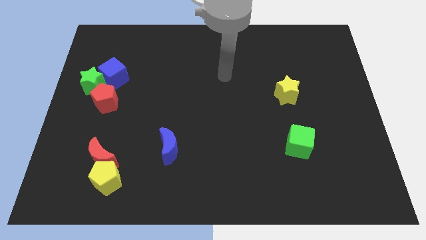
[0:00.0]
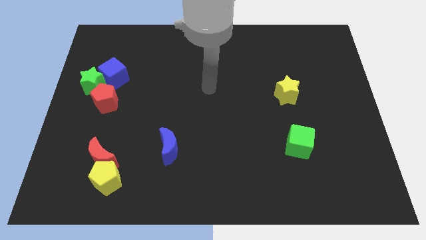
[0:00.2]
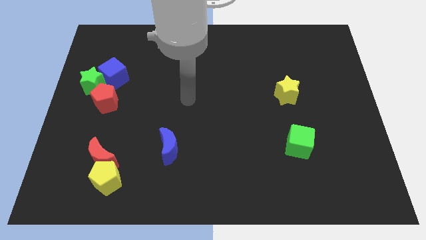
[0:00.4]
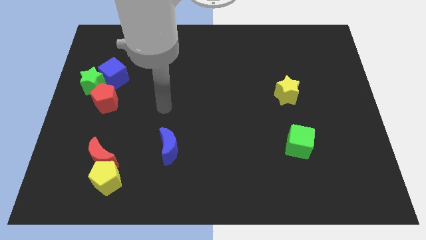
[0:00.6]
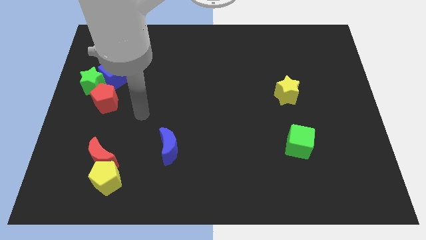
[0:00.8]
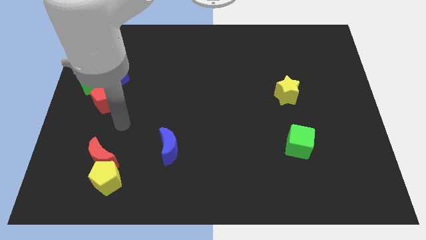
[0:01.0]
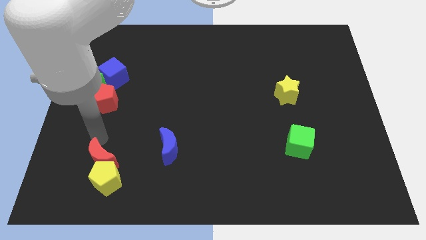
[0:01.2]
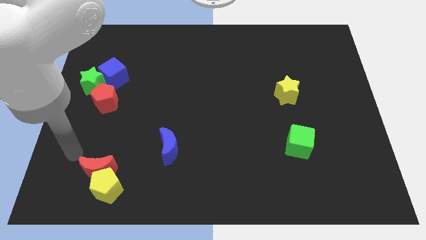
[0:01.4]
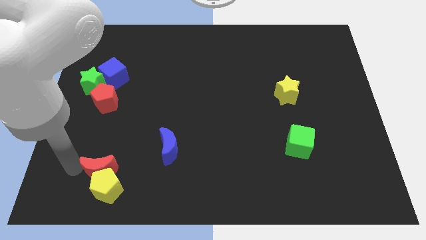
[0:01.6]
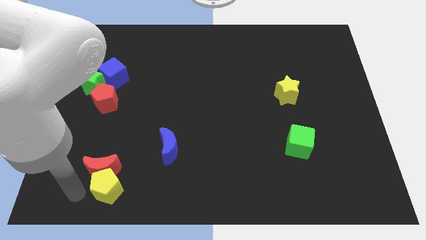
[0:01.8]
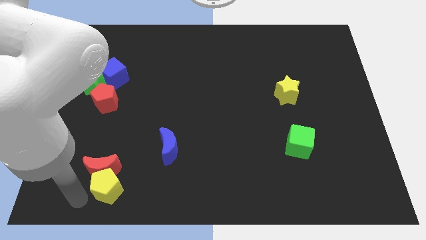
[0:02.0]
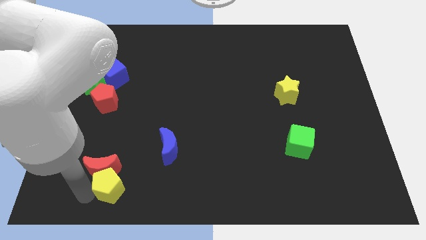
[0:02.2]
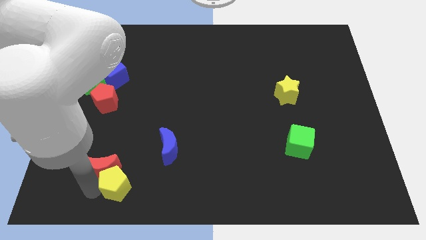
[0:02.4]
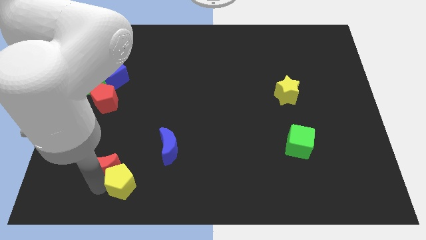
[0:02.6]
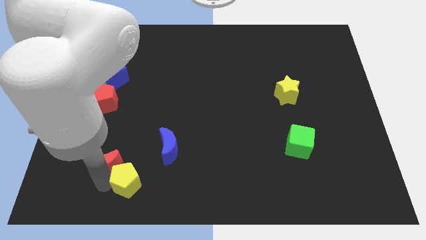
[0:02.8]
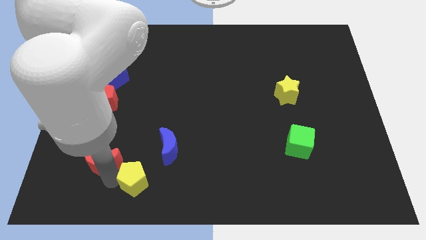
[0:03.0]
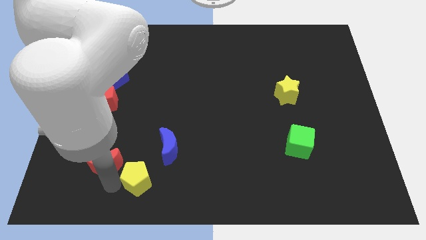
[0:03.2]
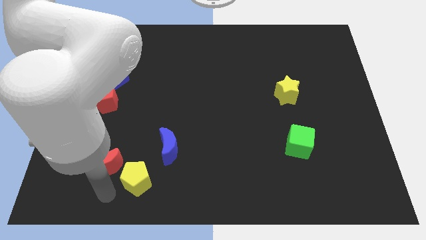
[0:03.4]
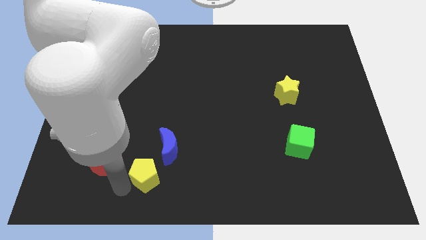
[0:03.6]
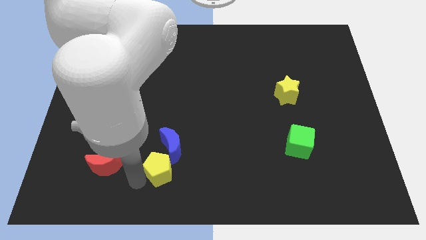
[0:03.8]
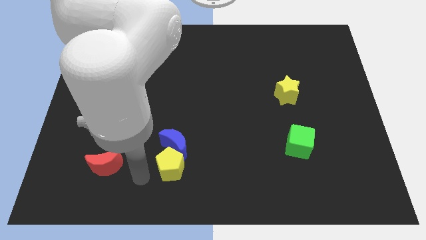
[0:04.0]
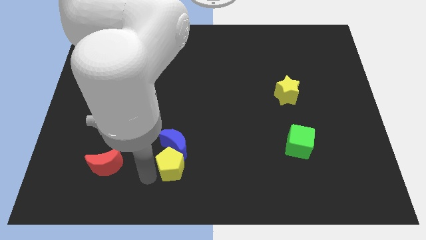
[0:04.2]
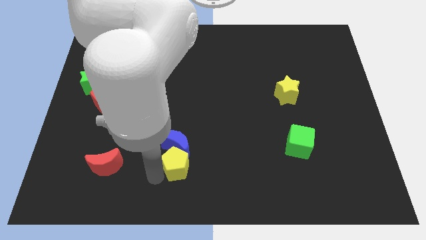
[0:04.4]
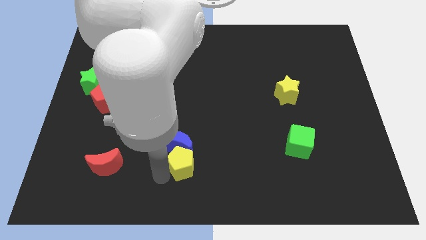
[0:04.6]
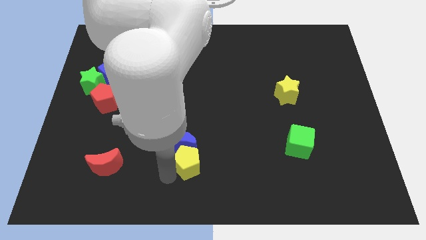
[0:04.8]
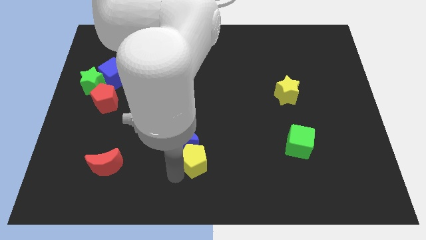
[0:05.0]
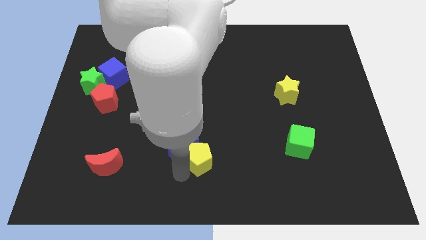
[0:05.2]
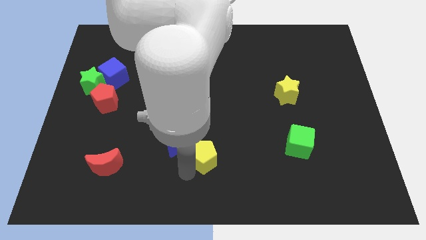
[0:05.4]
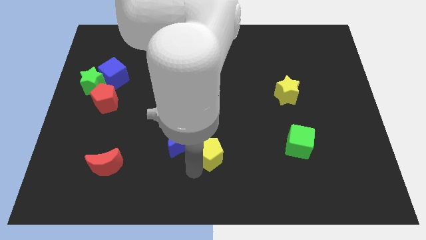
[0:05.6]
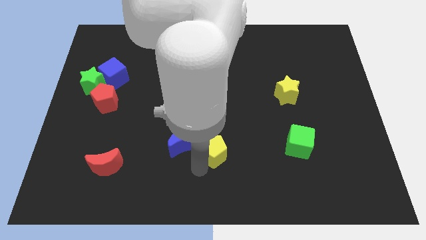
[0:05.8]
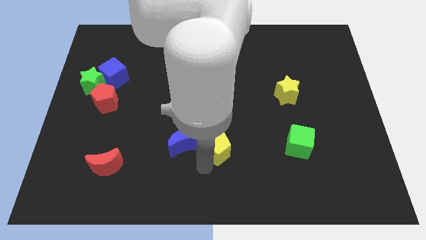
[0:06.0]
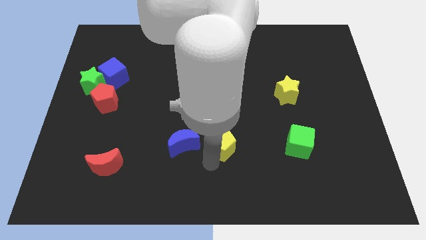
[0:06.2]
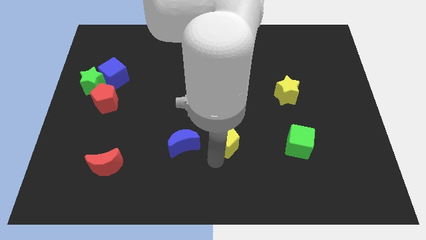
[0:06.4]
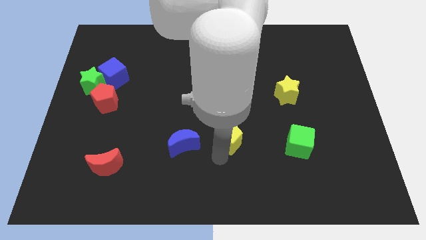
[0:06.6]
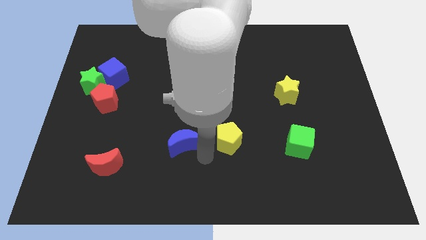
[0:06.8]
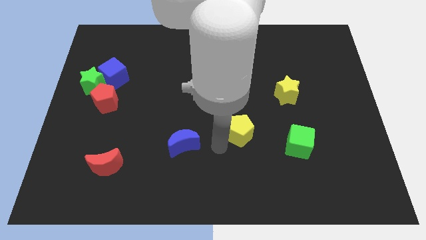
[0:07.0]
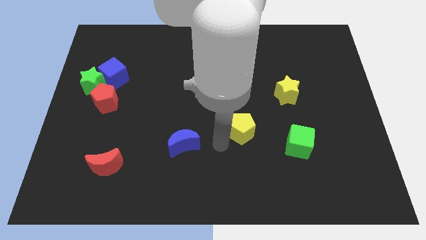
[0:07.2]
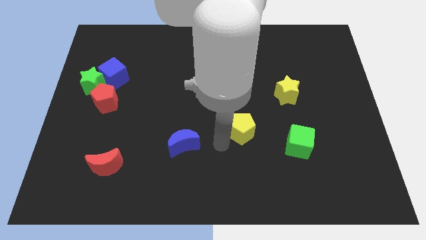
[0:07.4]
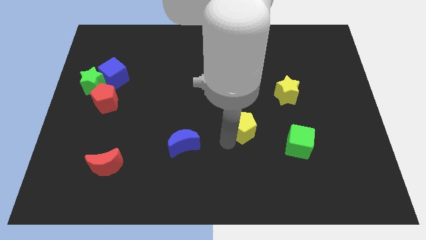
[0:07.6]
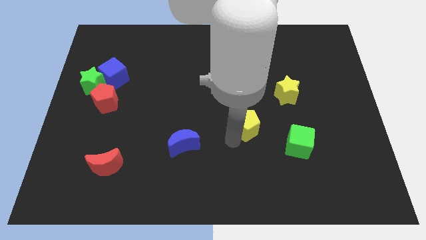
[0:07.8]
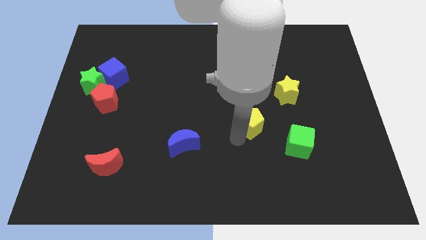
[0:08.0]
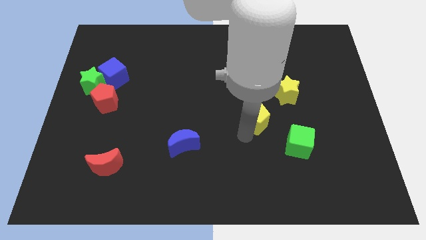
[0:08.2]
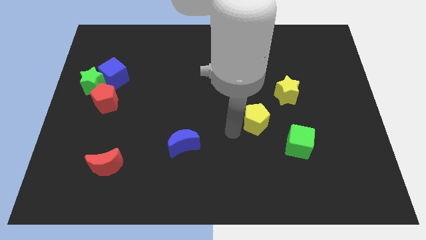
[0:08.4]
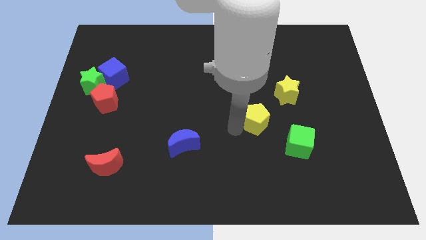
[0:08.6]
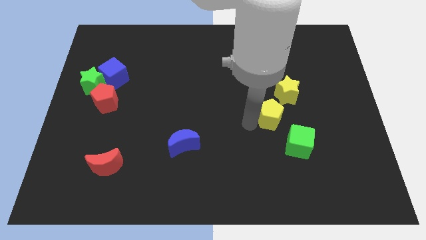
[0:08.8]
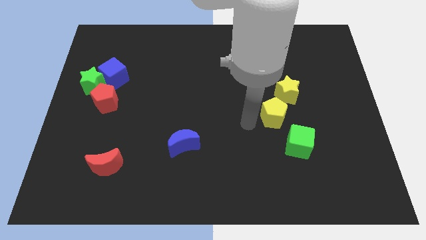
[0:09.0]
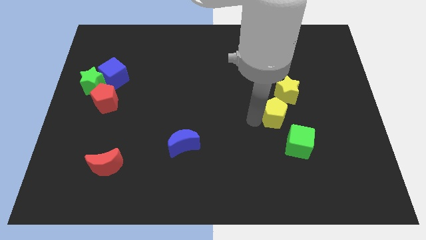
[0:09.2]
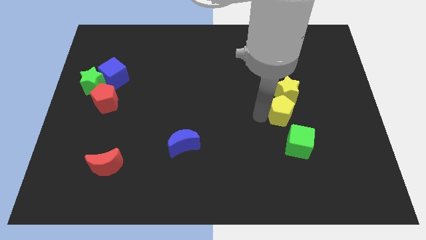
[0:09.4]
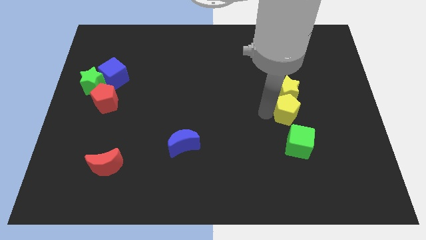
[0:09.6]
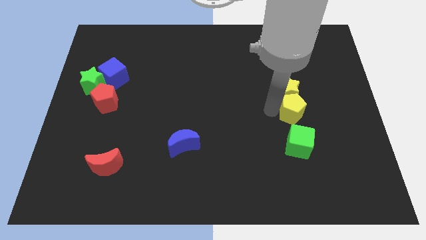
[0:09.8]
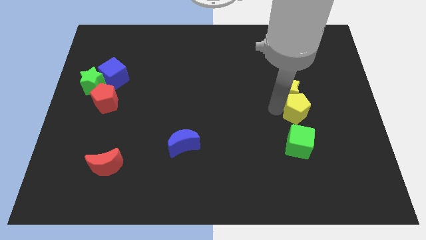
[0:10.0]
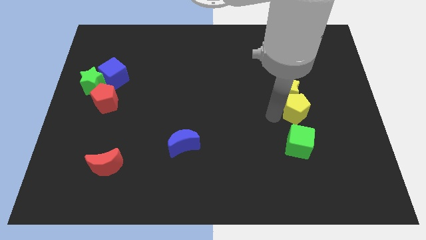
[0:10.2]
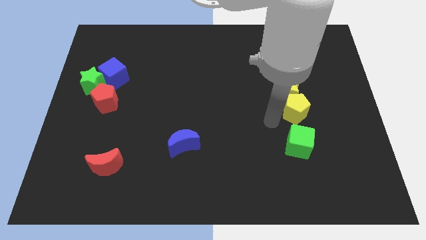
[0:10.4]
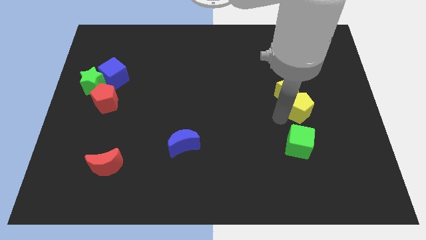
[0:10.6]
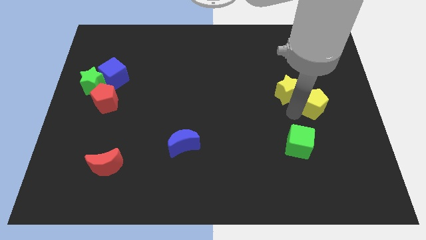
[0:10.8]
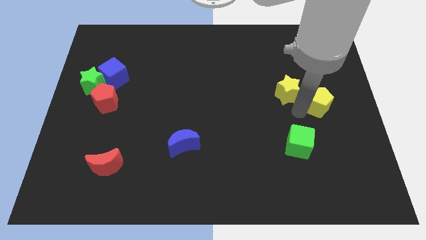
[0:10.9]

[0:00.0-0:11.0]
put the yellow pentagon to the right side of the board

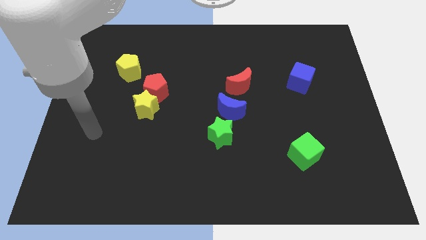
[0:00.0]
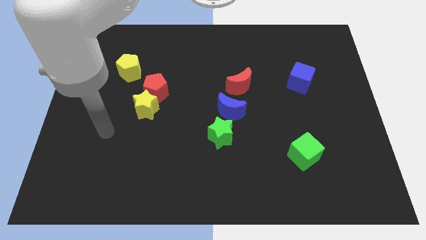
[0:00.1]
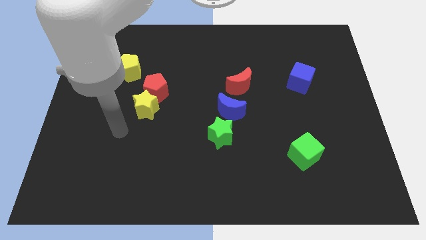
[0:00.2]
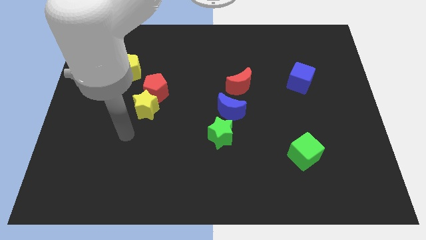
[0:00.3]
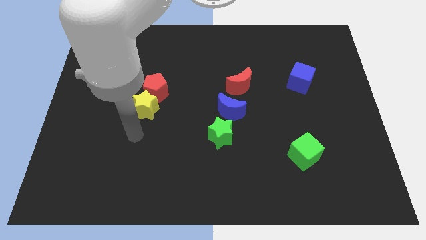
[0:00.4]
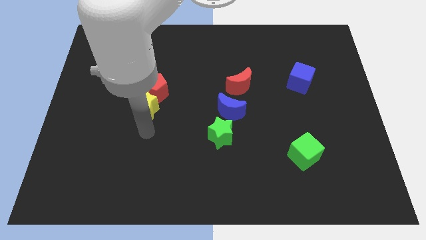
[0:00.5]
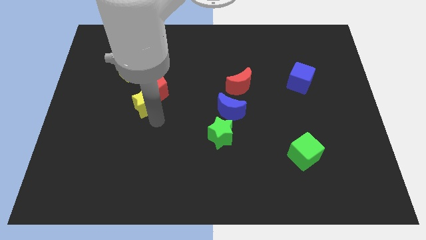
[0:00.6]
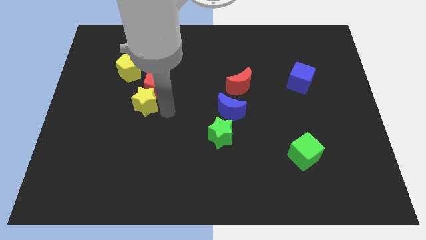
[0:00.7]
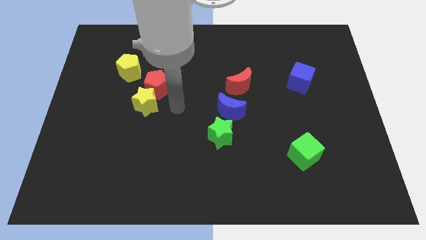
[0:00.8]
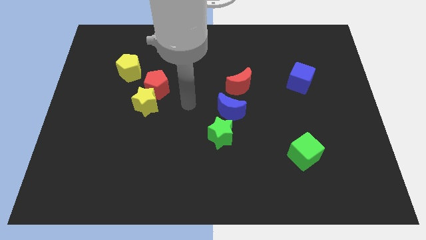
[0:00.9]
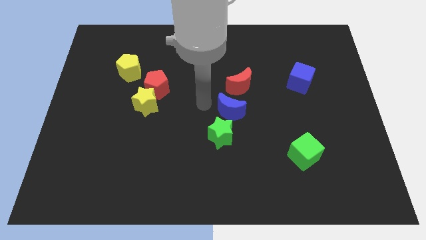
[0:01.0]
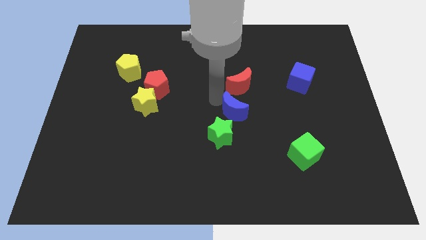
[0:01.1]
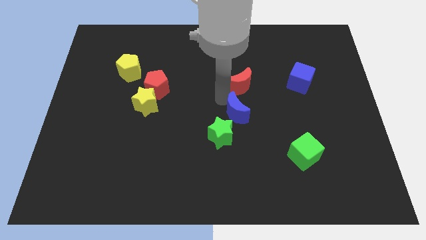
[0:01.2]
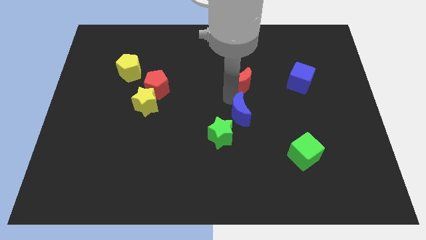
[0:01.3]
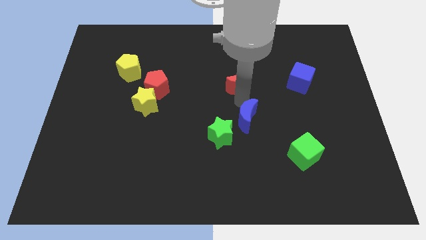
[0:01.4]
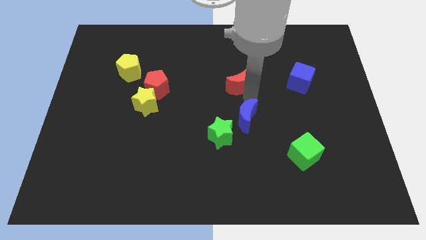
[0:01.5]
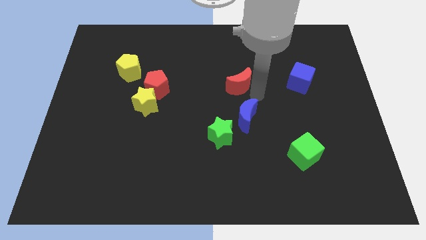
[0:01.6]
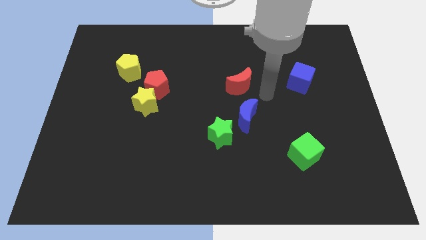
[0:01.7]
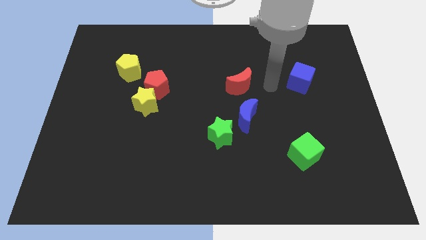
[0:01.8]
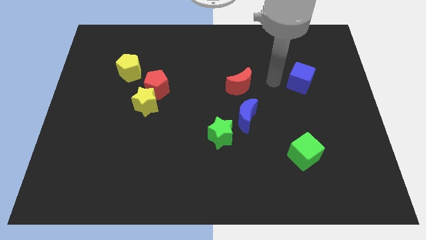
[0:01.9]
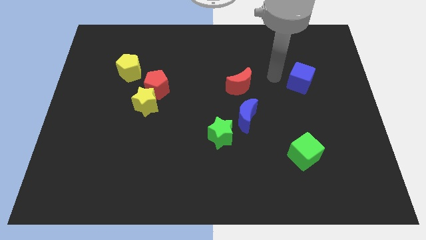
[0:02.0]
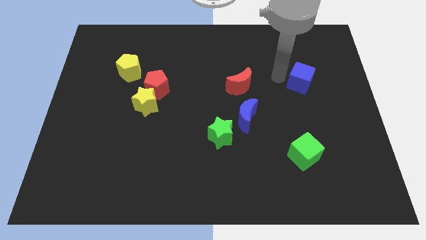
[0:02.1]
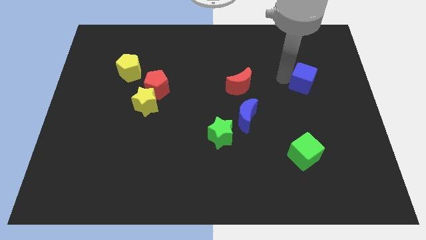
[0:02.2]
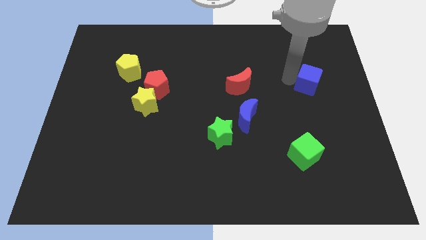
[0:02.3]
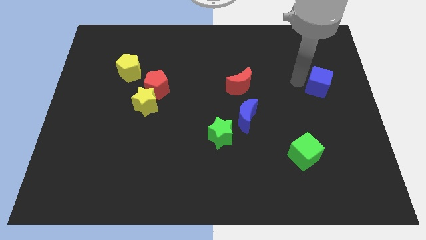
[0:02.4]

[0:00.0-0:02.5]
slide the blue cube to the center right
